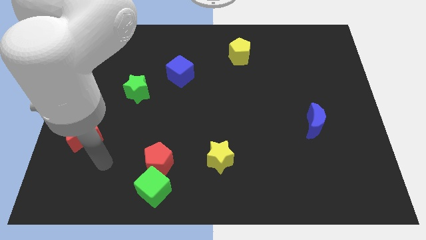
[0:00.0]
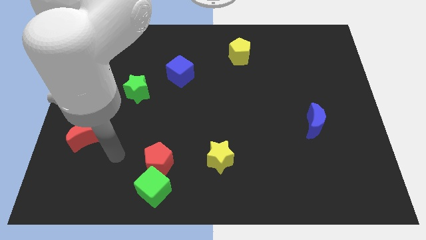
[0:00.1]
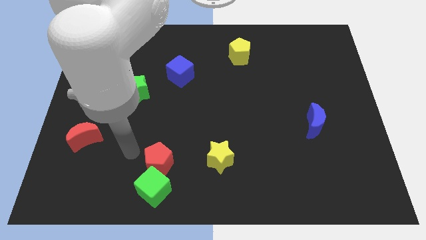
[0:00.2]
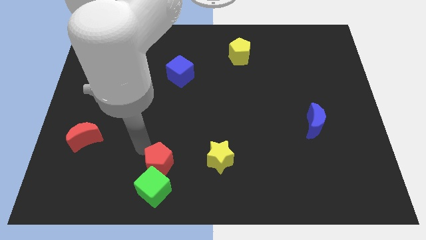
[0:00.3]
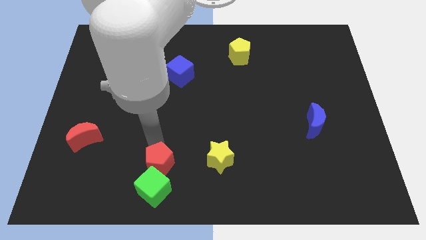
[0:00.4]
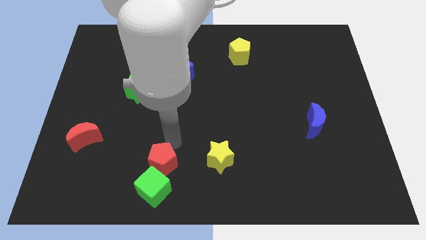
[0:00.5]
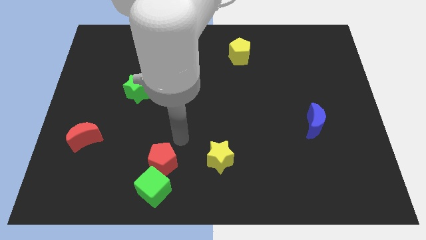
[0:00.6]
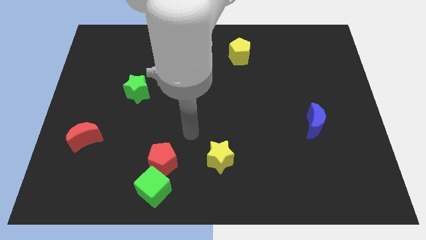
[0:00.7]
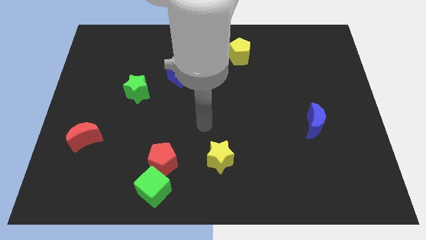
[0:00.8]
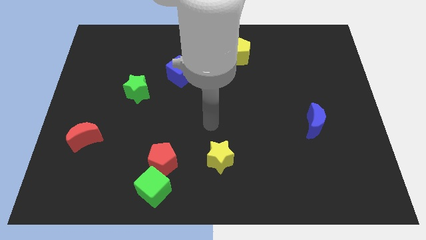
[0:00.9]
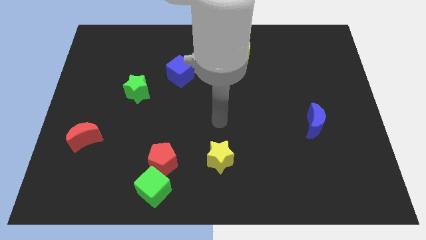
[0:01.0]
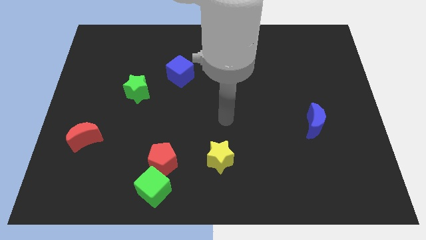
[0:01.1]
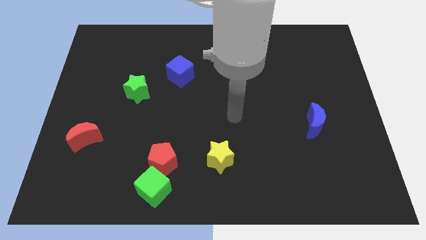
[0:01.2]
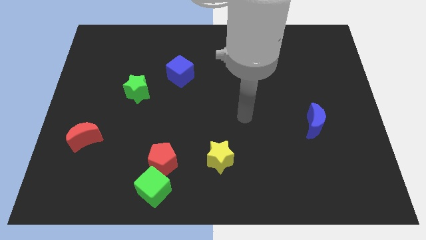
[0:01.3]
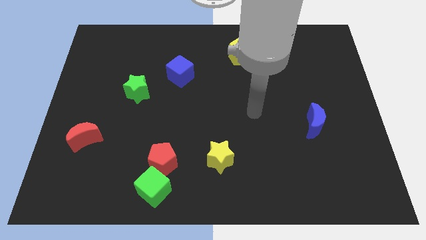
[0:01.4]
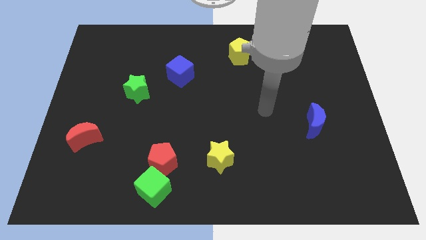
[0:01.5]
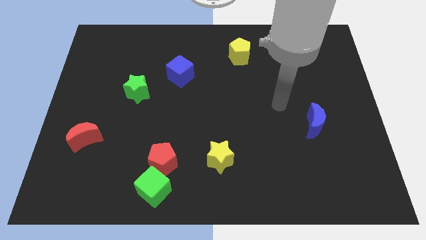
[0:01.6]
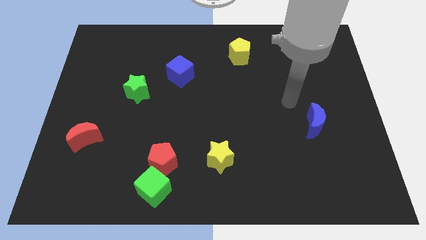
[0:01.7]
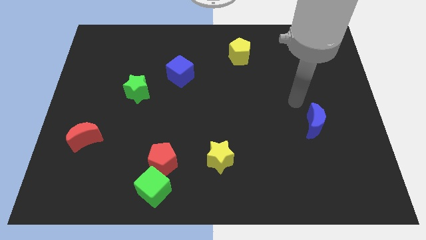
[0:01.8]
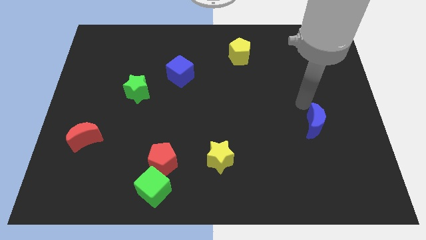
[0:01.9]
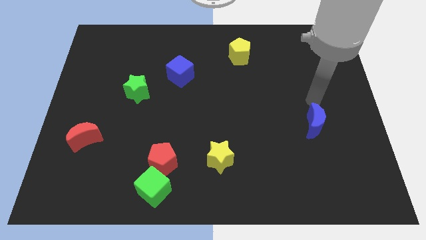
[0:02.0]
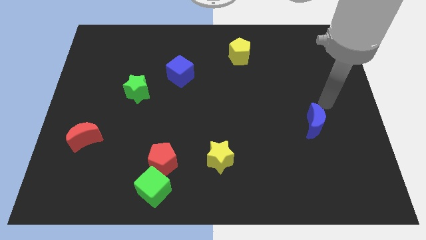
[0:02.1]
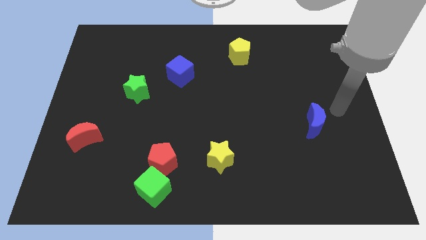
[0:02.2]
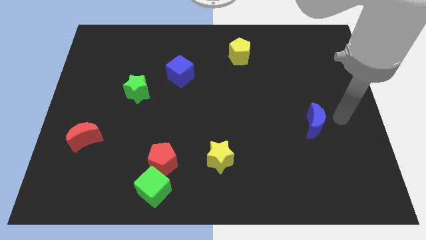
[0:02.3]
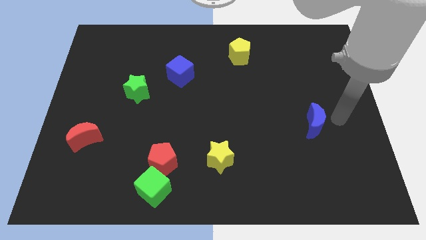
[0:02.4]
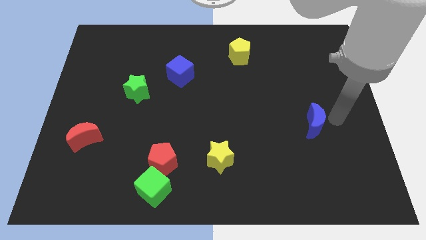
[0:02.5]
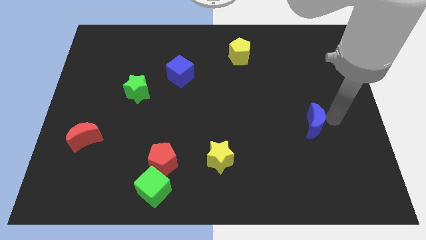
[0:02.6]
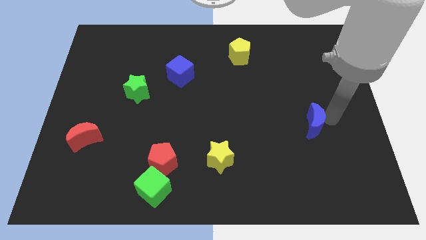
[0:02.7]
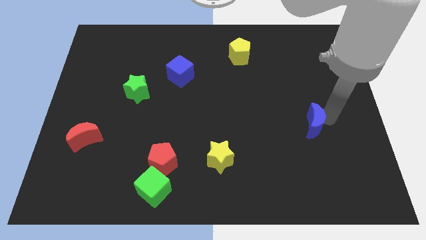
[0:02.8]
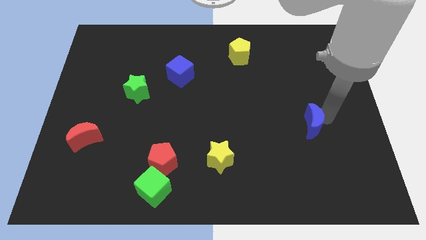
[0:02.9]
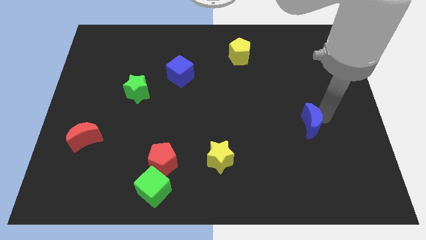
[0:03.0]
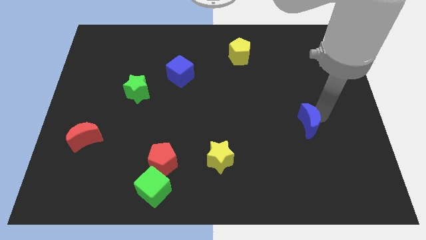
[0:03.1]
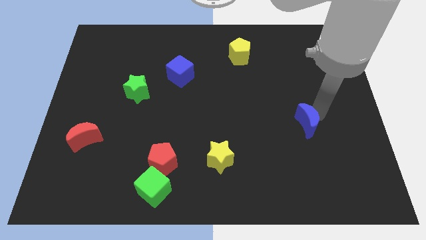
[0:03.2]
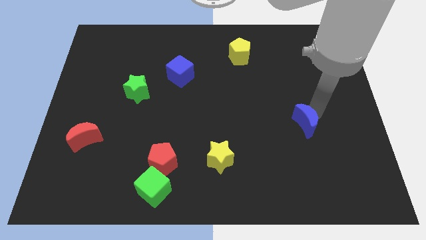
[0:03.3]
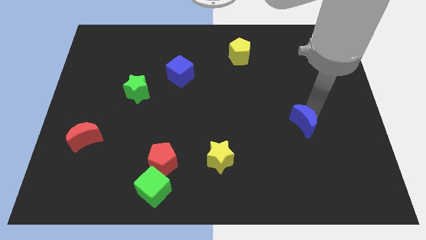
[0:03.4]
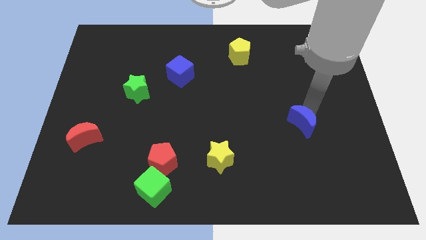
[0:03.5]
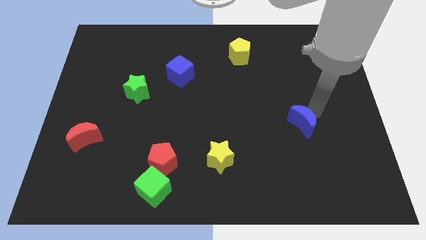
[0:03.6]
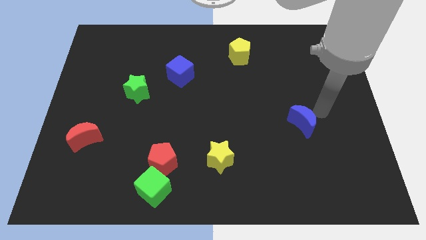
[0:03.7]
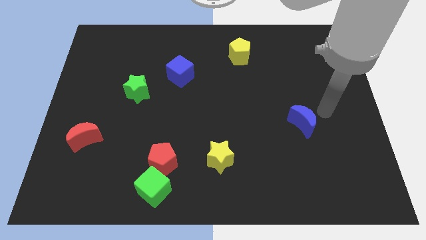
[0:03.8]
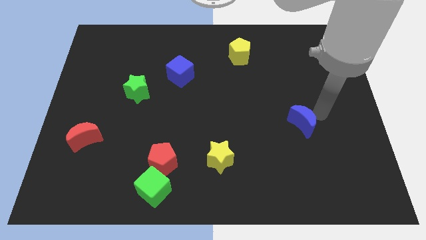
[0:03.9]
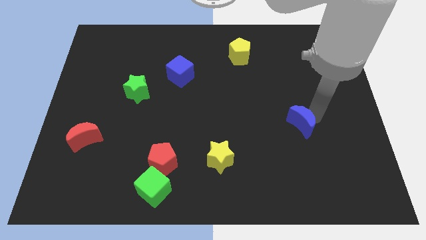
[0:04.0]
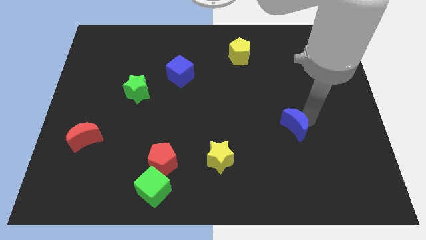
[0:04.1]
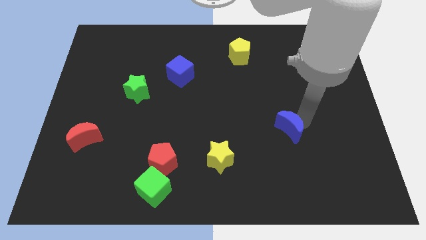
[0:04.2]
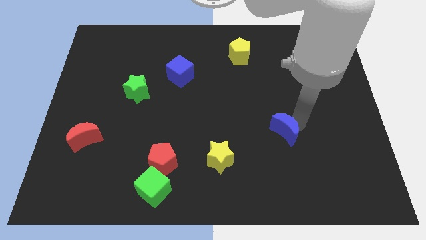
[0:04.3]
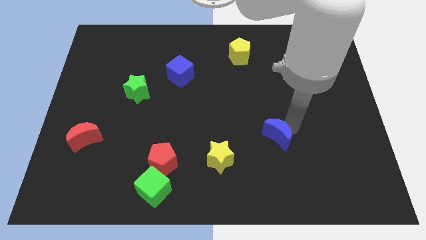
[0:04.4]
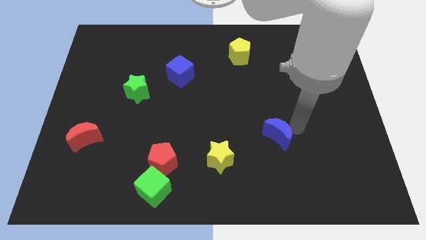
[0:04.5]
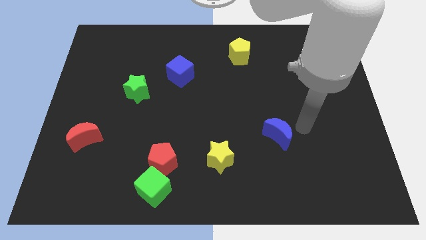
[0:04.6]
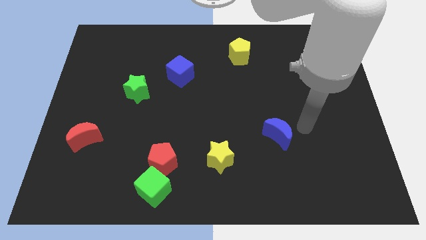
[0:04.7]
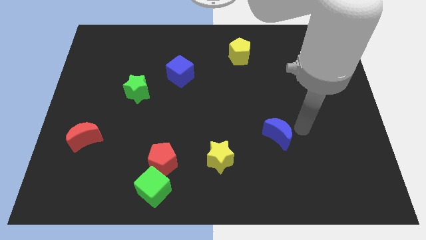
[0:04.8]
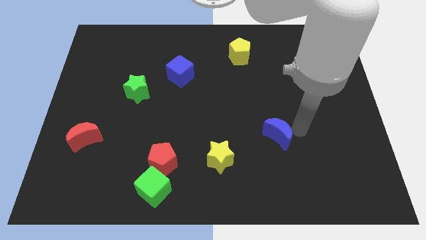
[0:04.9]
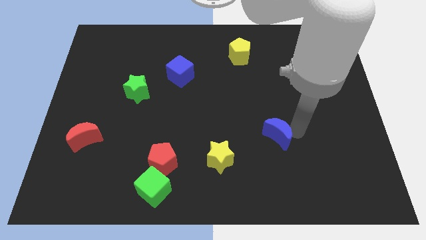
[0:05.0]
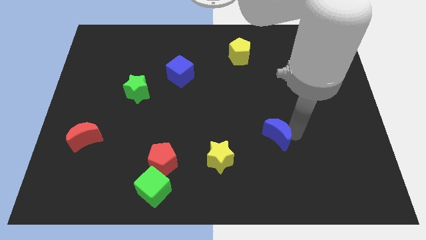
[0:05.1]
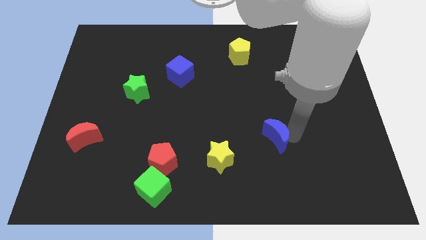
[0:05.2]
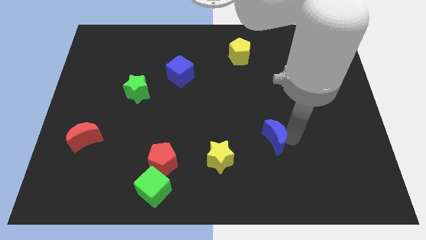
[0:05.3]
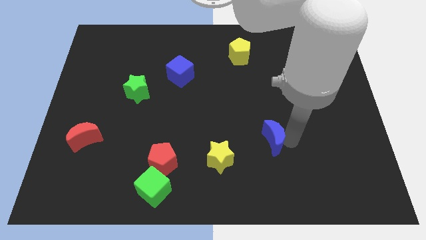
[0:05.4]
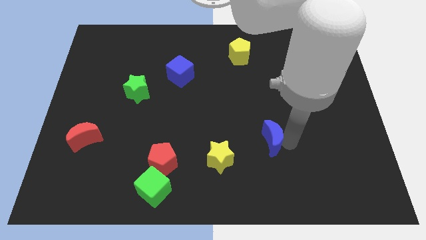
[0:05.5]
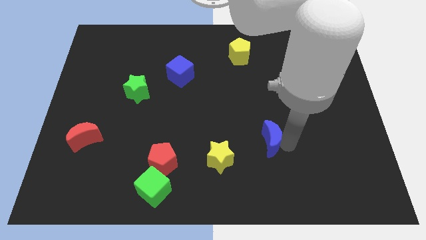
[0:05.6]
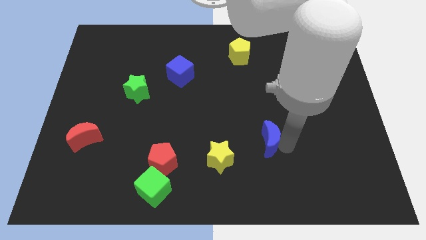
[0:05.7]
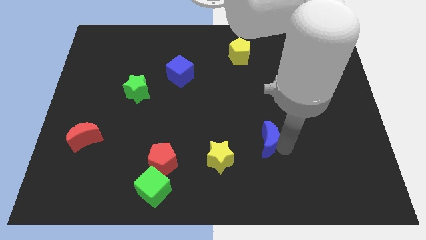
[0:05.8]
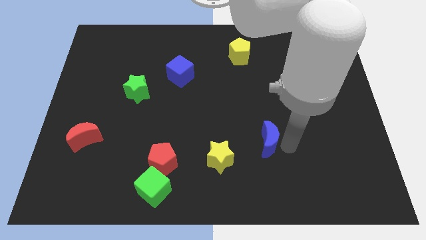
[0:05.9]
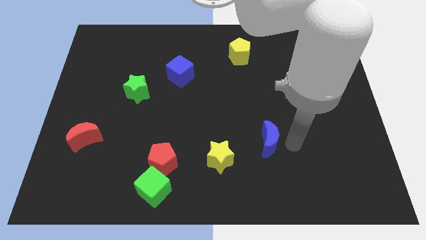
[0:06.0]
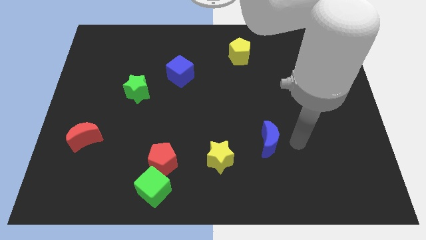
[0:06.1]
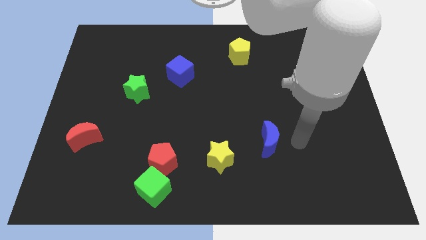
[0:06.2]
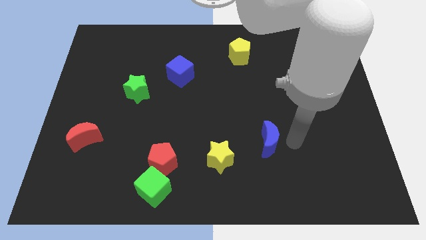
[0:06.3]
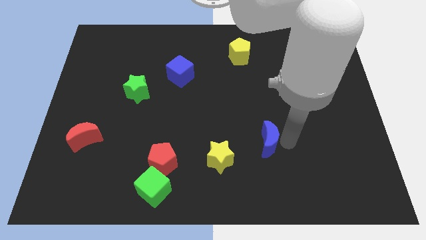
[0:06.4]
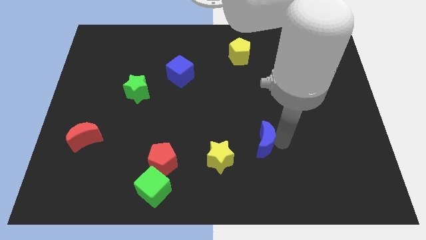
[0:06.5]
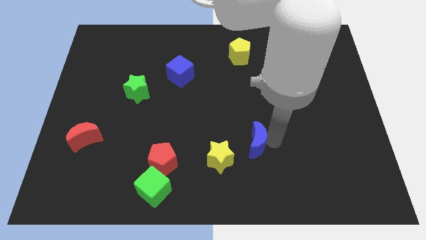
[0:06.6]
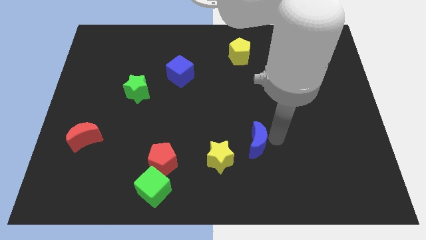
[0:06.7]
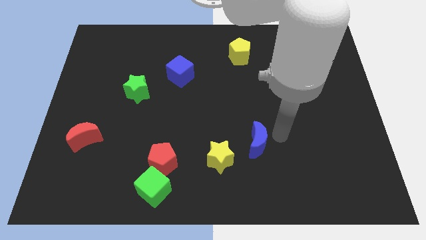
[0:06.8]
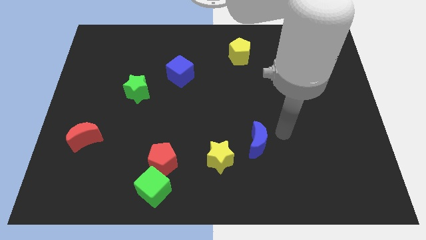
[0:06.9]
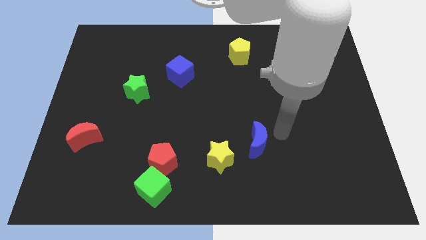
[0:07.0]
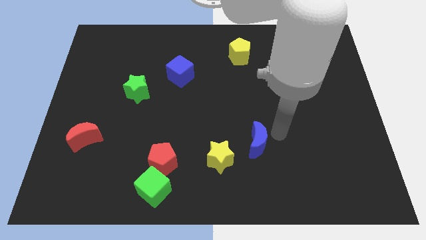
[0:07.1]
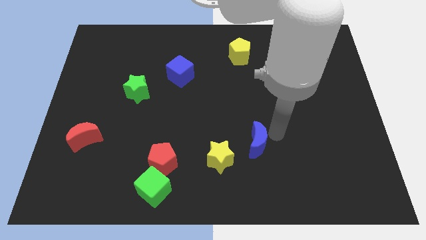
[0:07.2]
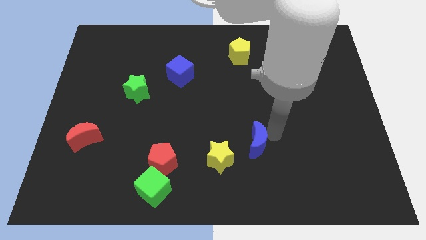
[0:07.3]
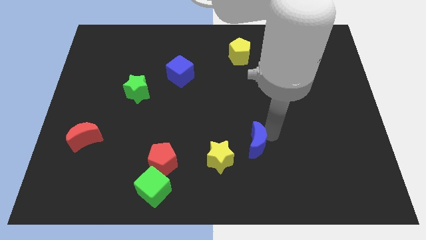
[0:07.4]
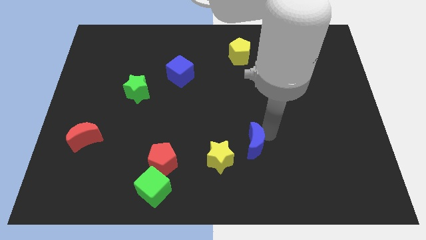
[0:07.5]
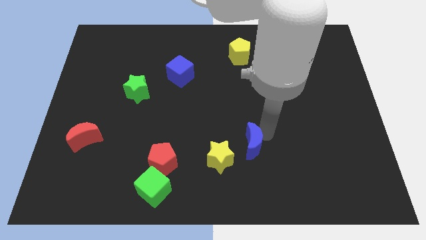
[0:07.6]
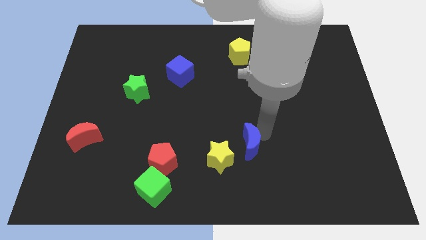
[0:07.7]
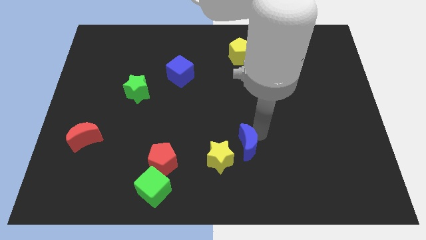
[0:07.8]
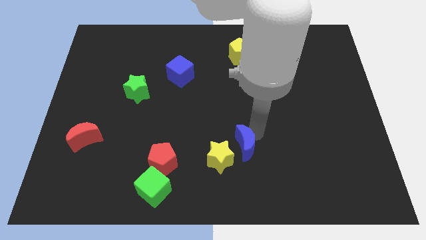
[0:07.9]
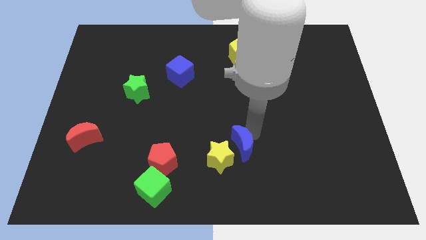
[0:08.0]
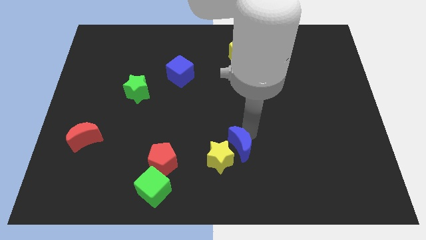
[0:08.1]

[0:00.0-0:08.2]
slide the blue moon close to the yellow star
